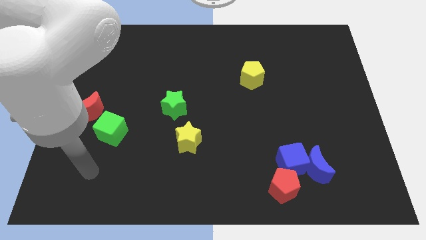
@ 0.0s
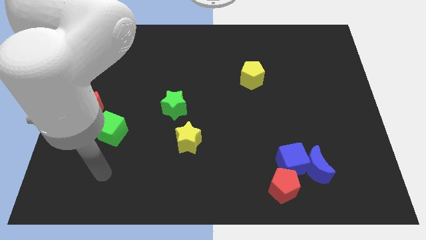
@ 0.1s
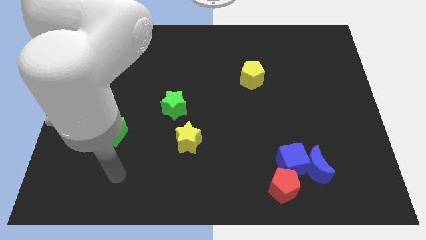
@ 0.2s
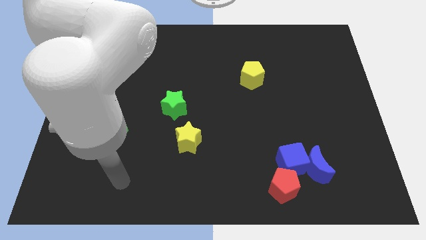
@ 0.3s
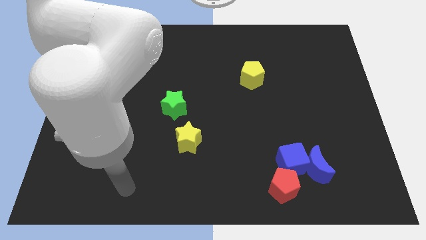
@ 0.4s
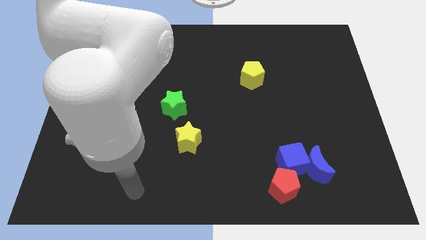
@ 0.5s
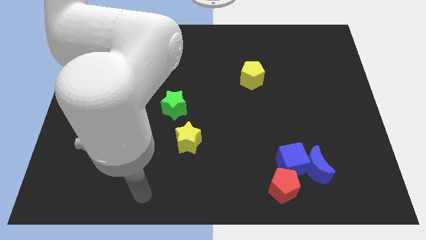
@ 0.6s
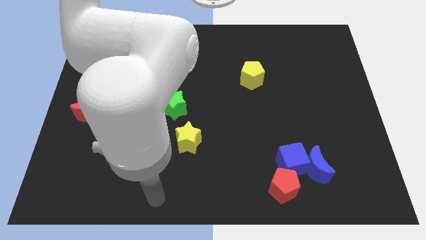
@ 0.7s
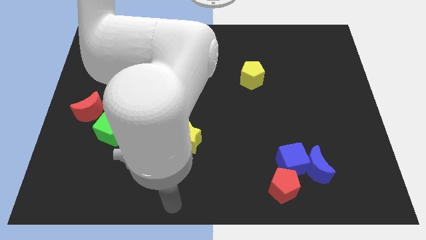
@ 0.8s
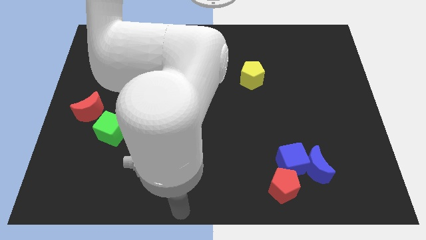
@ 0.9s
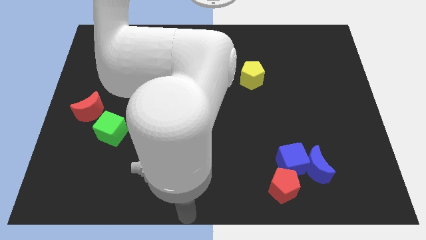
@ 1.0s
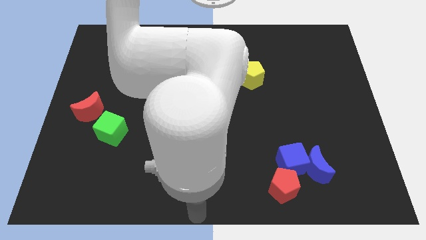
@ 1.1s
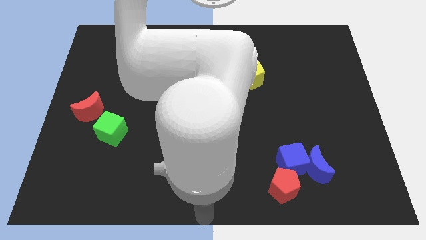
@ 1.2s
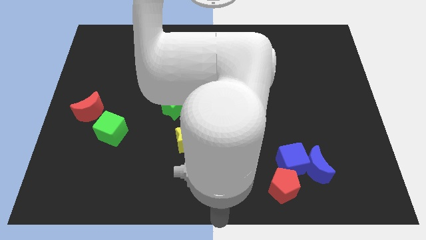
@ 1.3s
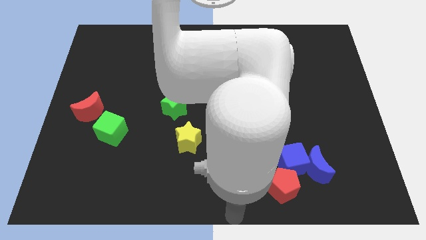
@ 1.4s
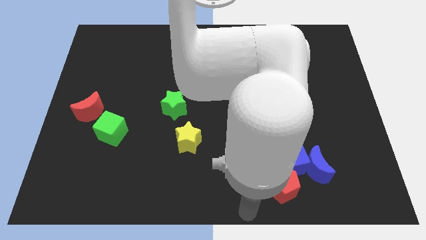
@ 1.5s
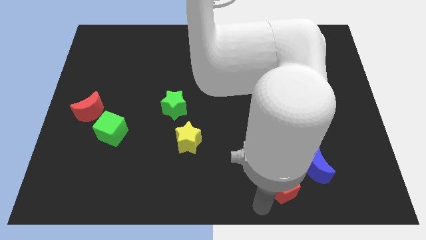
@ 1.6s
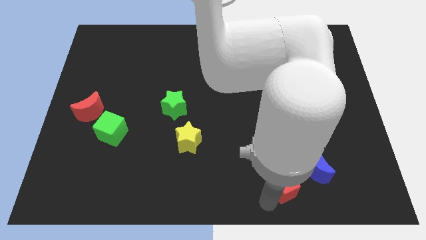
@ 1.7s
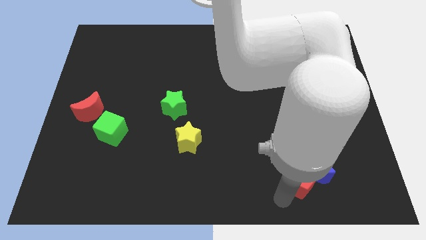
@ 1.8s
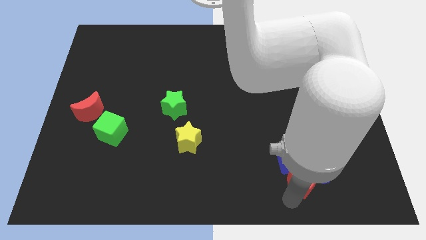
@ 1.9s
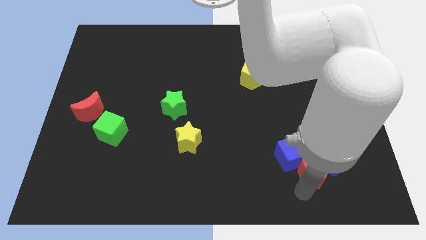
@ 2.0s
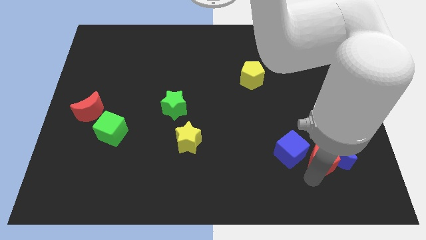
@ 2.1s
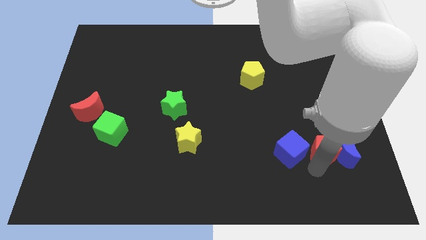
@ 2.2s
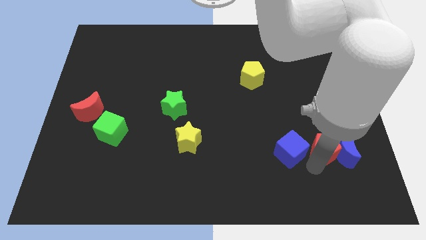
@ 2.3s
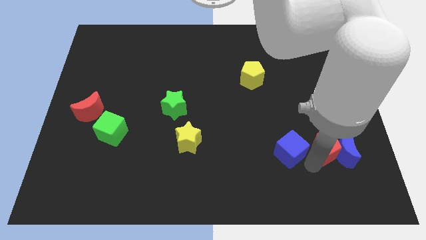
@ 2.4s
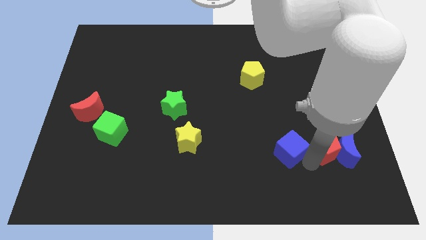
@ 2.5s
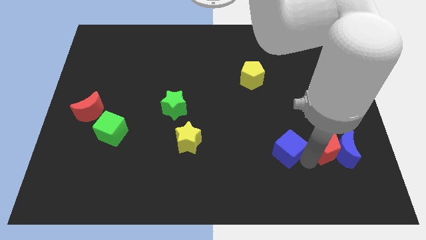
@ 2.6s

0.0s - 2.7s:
pull the blue cube apart from the blue moon and red pentagon

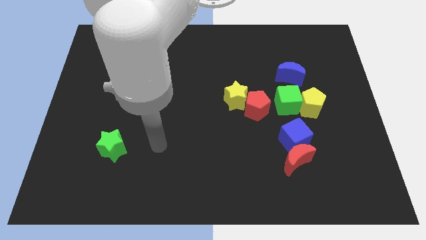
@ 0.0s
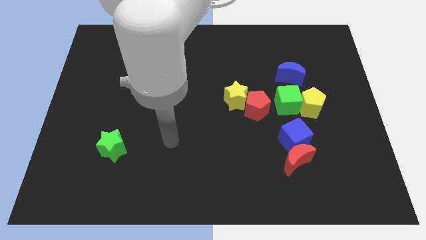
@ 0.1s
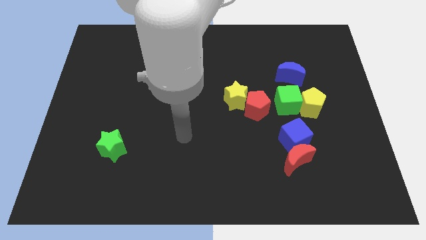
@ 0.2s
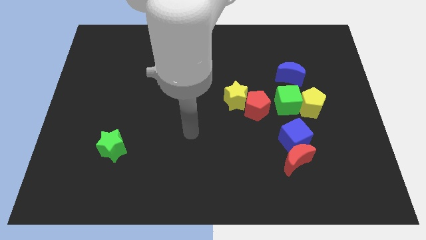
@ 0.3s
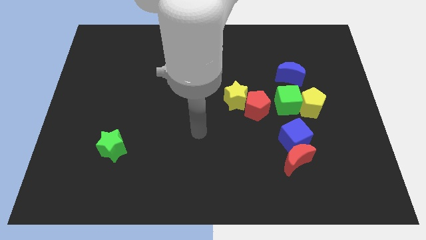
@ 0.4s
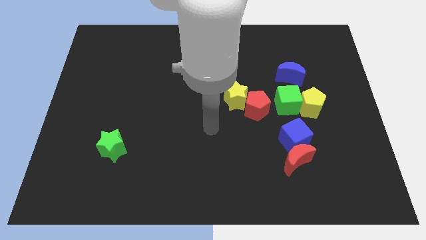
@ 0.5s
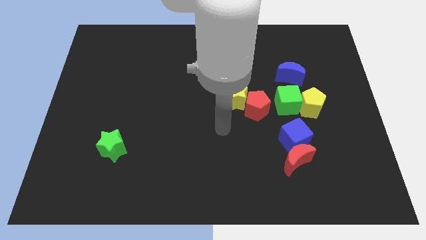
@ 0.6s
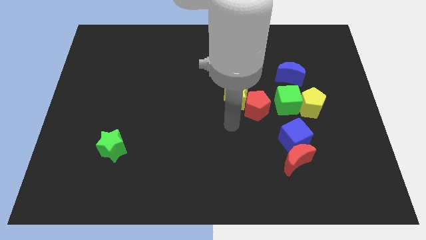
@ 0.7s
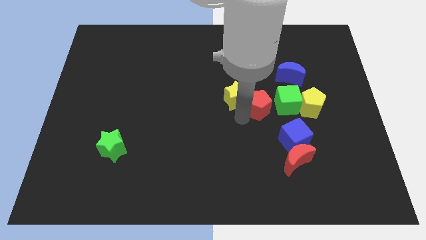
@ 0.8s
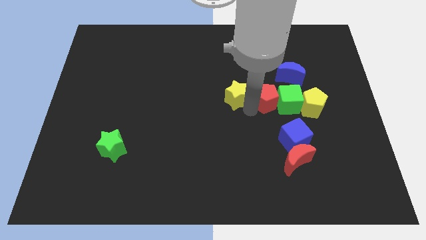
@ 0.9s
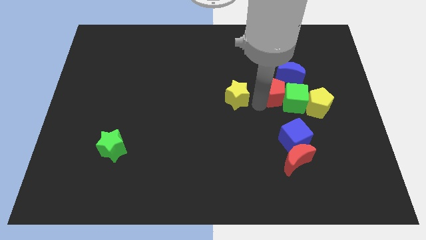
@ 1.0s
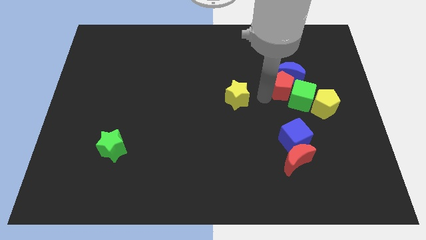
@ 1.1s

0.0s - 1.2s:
move the yellow star away from the red pentagon

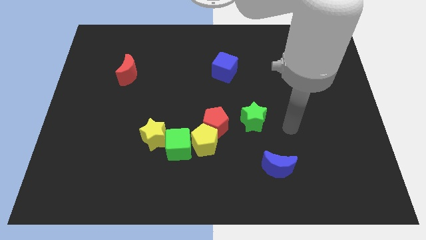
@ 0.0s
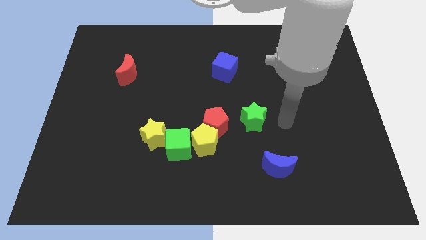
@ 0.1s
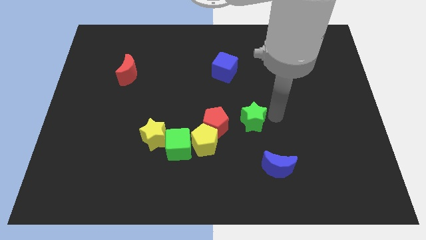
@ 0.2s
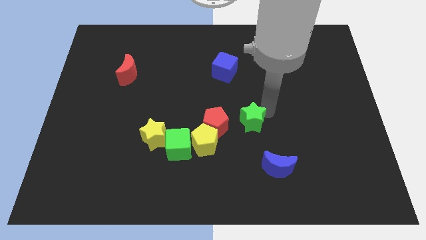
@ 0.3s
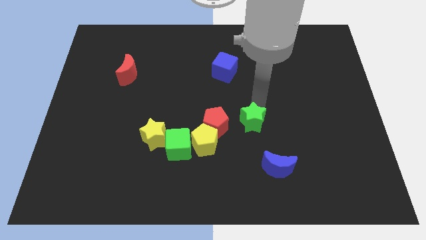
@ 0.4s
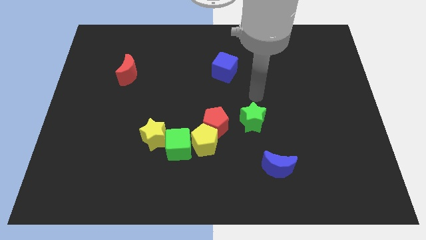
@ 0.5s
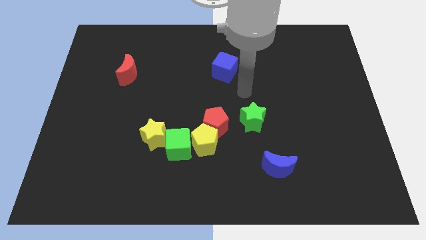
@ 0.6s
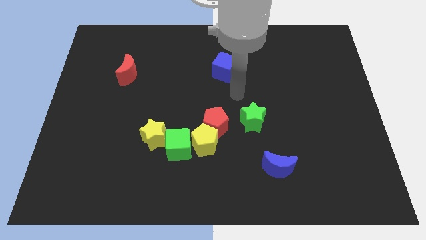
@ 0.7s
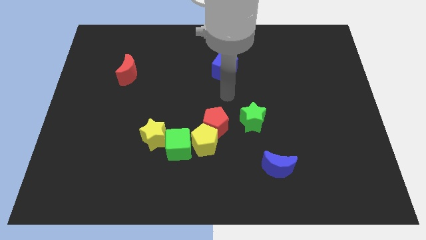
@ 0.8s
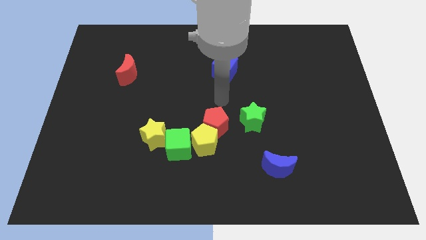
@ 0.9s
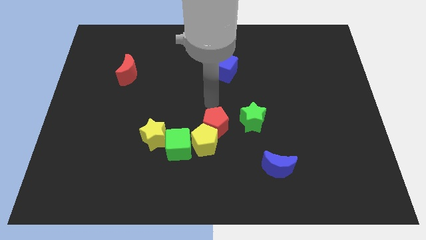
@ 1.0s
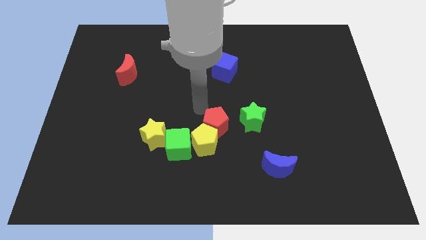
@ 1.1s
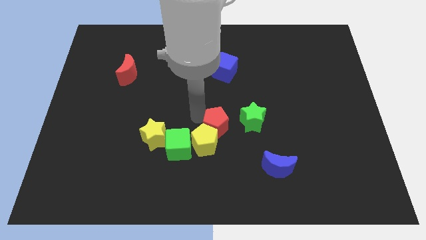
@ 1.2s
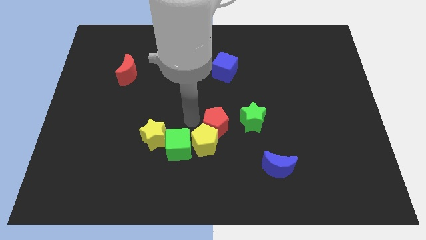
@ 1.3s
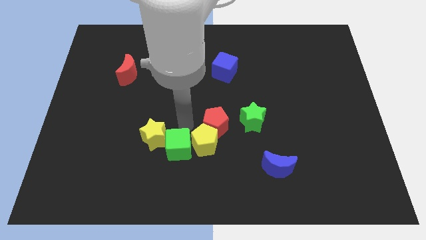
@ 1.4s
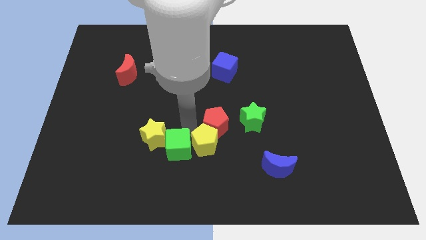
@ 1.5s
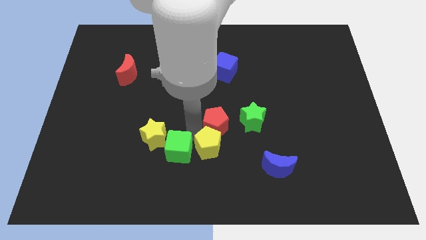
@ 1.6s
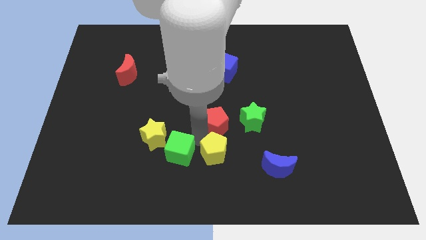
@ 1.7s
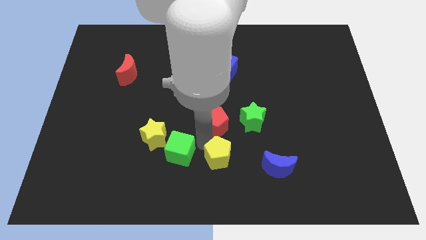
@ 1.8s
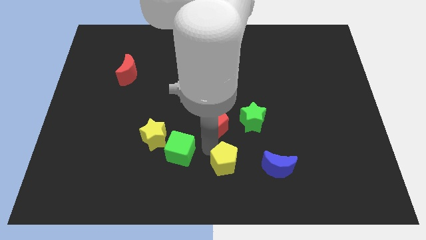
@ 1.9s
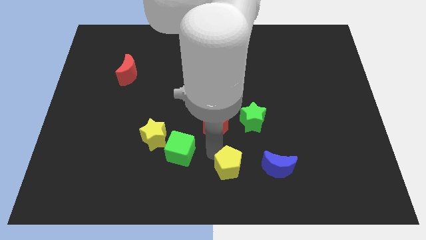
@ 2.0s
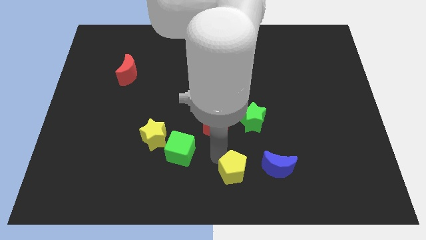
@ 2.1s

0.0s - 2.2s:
pull the yellow pentagon apart from the red pentagon and green cube

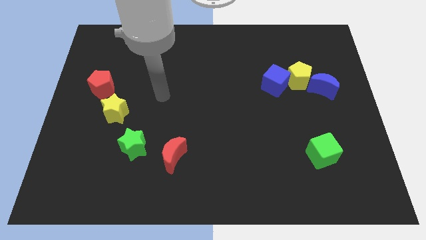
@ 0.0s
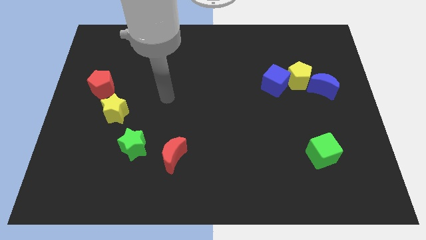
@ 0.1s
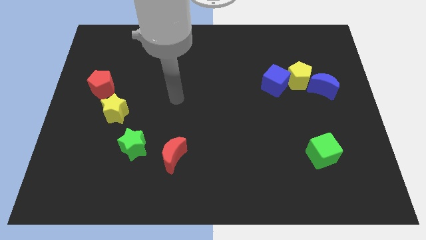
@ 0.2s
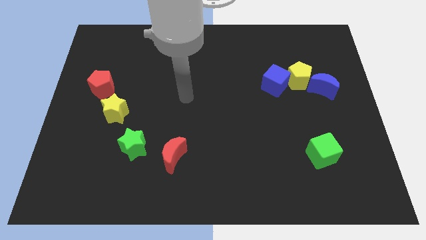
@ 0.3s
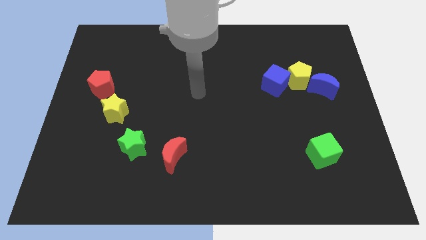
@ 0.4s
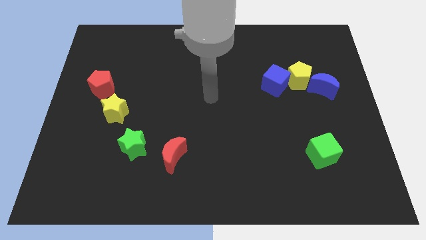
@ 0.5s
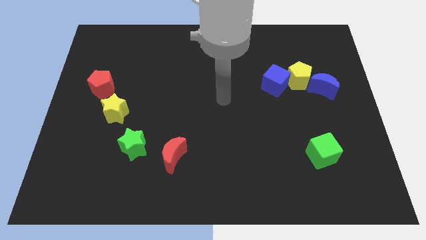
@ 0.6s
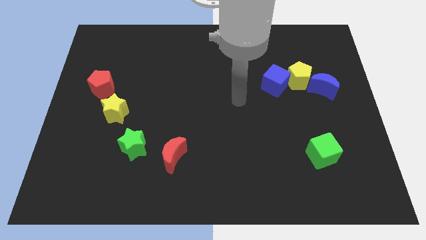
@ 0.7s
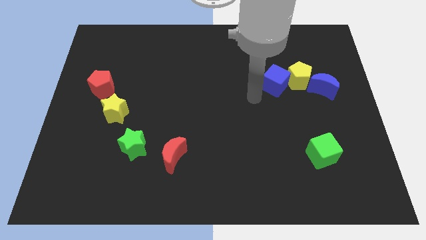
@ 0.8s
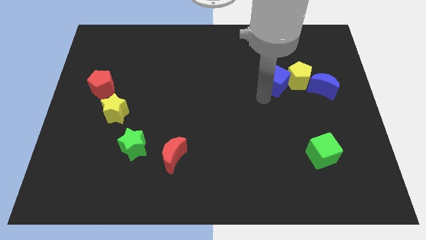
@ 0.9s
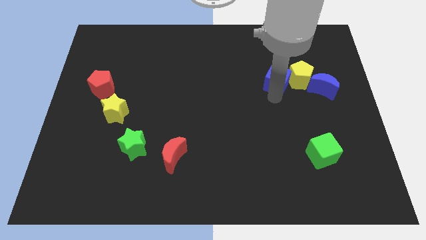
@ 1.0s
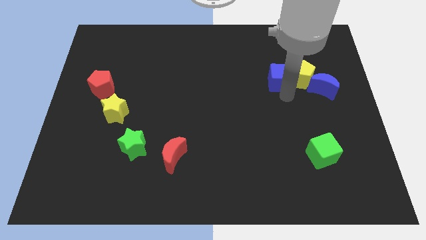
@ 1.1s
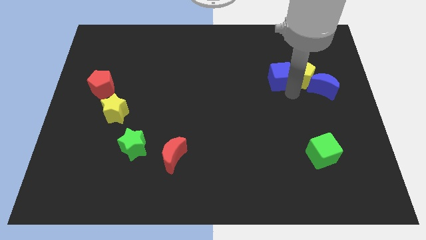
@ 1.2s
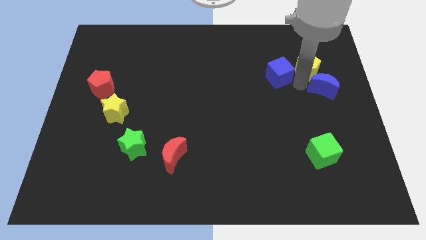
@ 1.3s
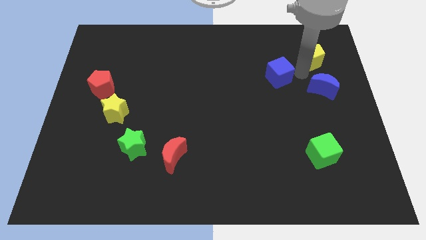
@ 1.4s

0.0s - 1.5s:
move the blue cube away from the yellow pentagon

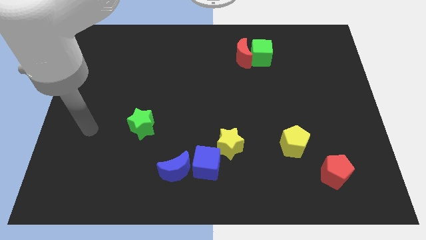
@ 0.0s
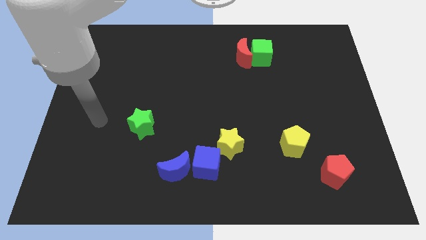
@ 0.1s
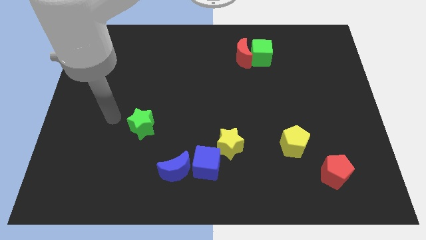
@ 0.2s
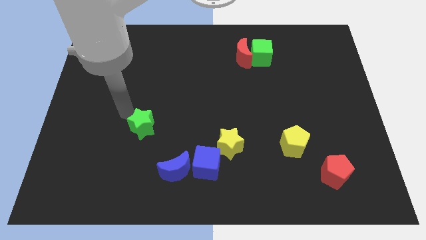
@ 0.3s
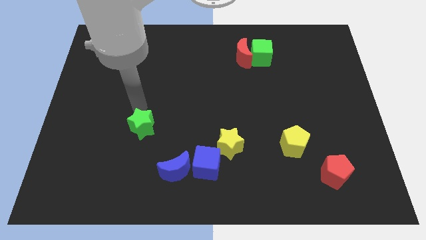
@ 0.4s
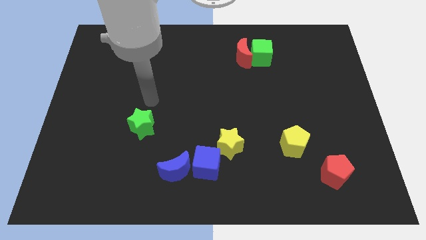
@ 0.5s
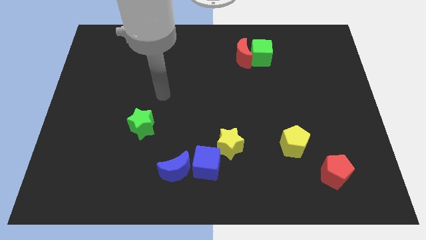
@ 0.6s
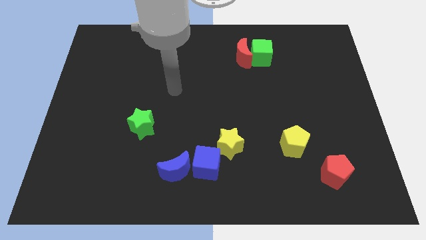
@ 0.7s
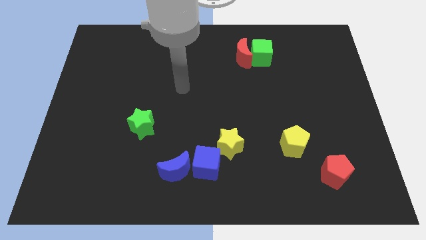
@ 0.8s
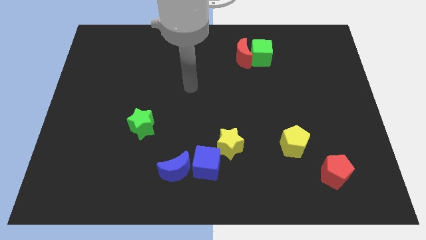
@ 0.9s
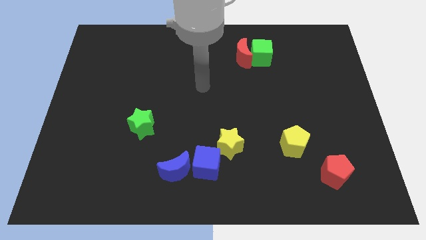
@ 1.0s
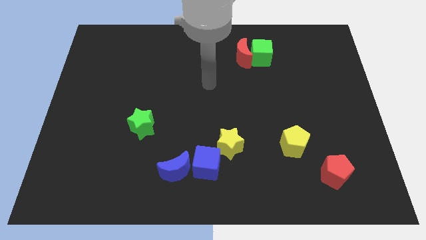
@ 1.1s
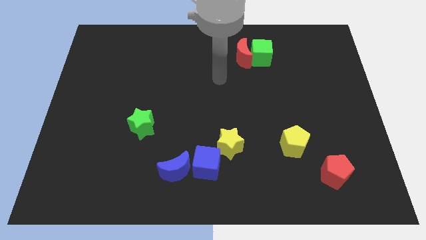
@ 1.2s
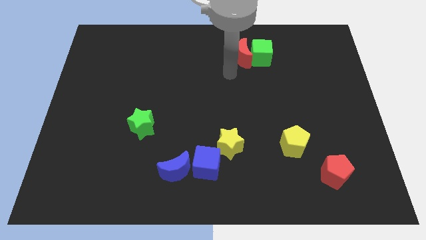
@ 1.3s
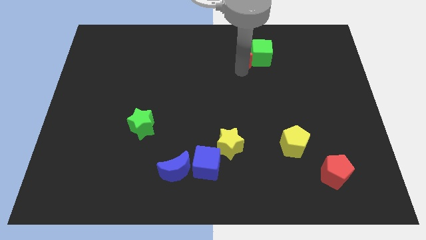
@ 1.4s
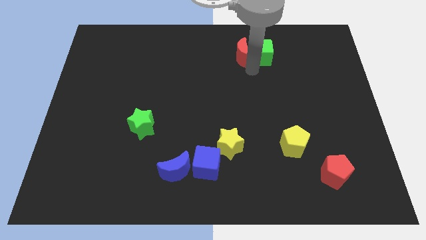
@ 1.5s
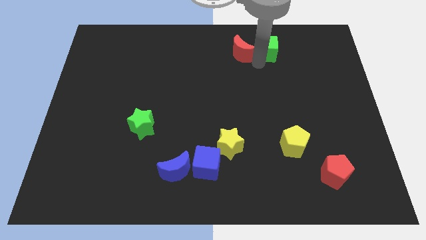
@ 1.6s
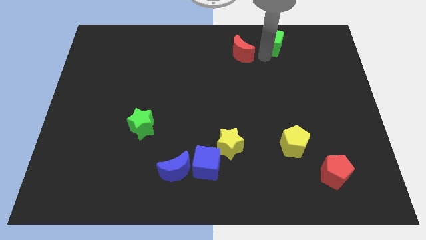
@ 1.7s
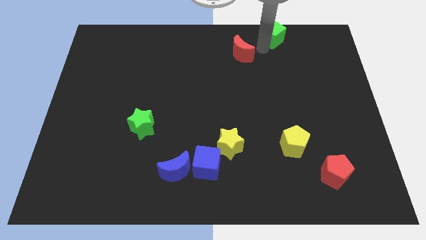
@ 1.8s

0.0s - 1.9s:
separate the red moon from the green cube

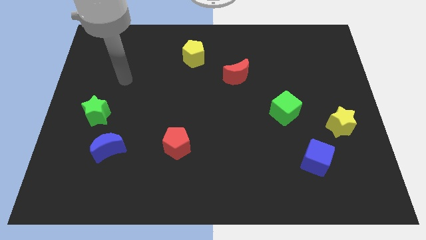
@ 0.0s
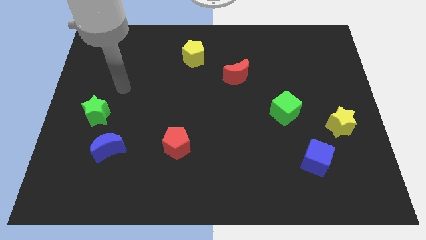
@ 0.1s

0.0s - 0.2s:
pull the blue moon apart from the green star
